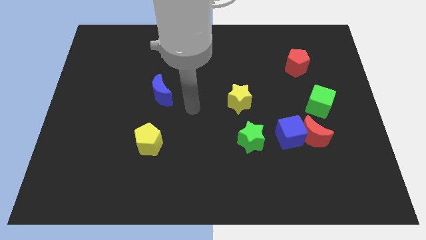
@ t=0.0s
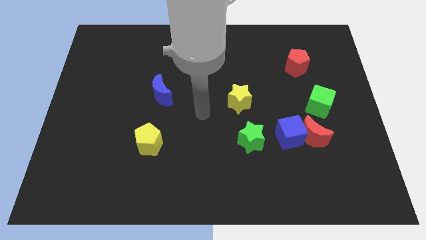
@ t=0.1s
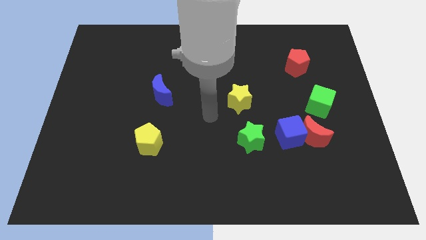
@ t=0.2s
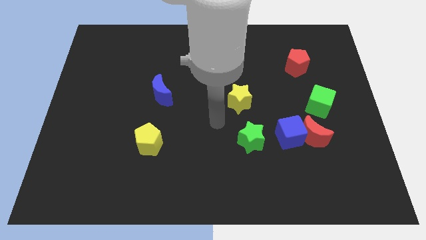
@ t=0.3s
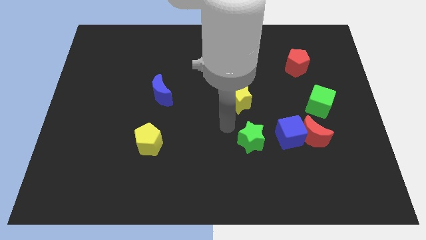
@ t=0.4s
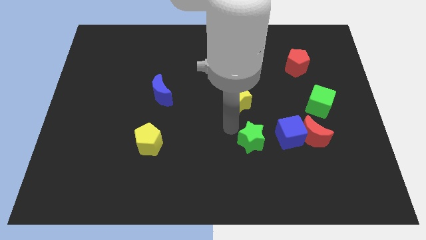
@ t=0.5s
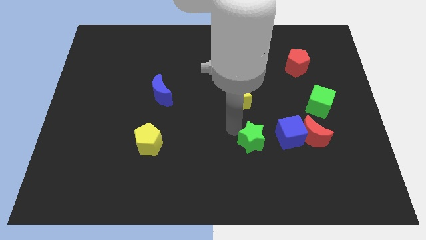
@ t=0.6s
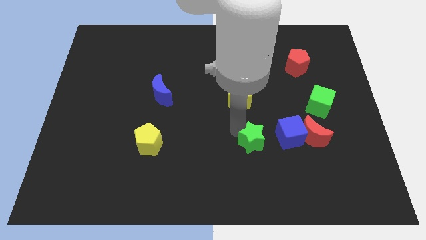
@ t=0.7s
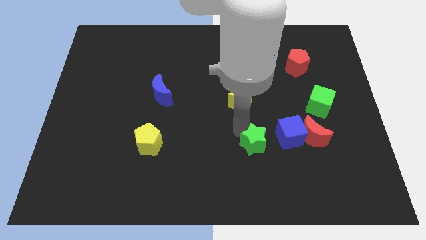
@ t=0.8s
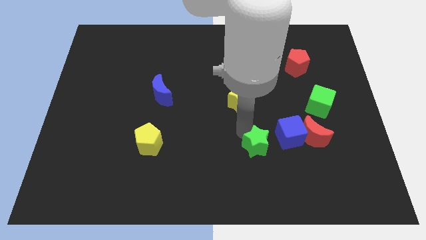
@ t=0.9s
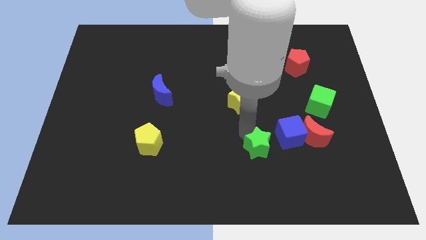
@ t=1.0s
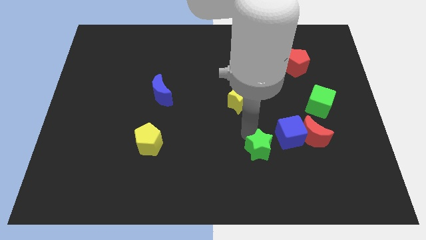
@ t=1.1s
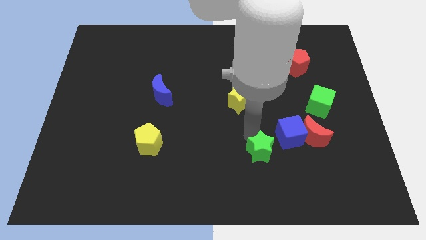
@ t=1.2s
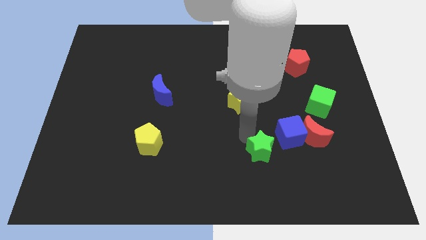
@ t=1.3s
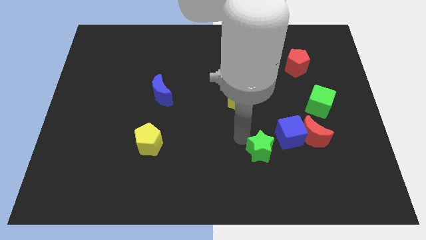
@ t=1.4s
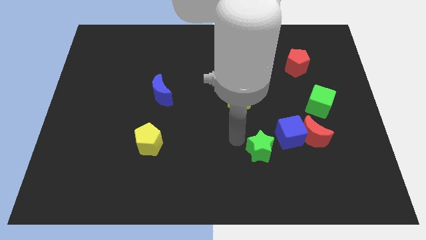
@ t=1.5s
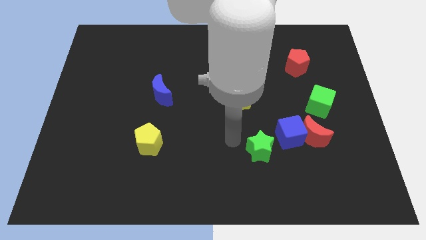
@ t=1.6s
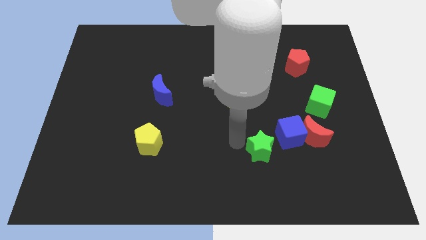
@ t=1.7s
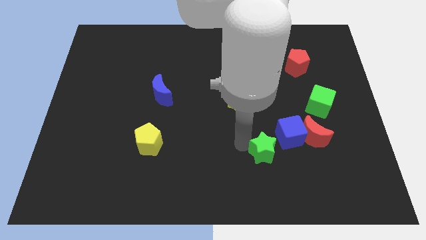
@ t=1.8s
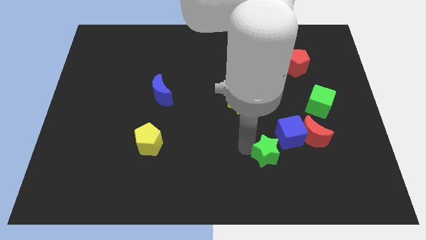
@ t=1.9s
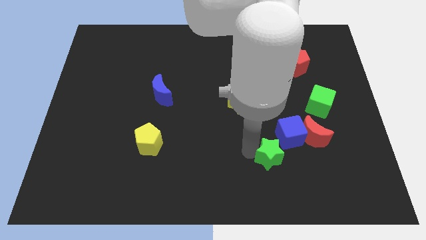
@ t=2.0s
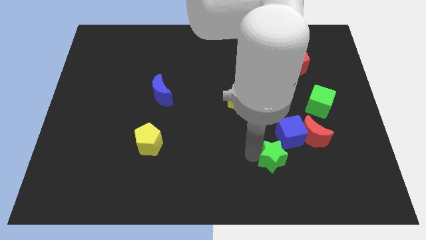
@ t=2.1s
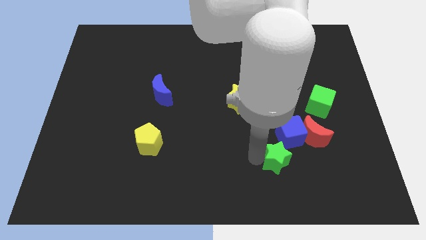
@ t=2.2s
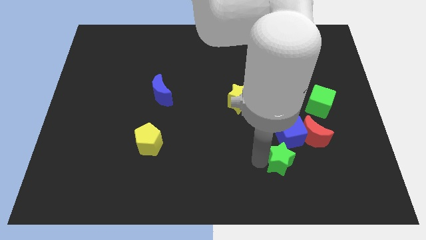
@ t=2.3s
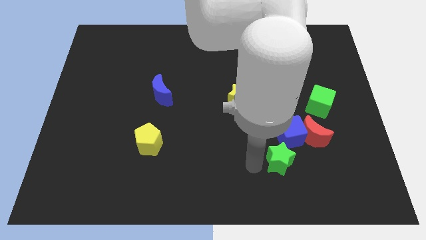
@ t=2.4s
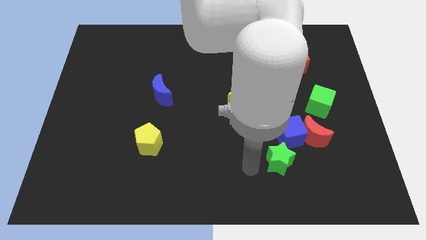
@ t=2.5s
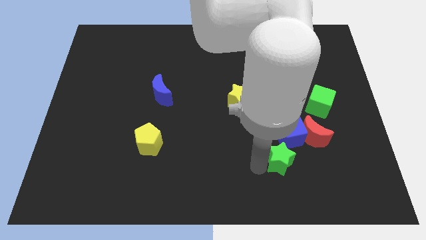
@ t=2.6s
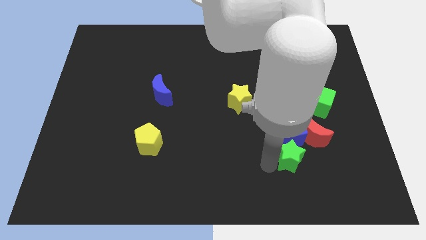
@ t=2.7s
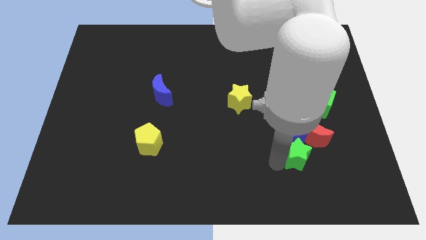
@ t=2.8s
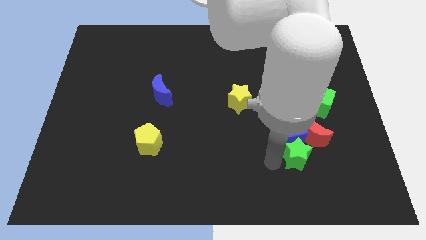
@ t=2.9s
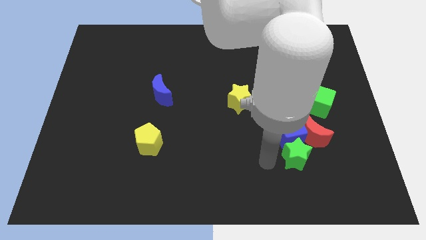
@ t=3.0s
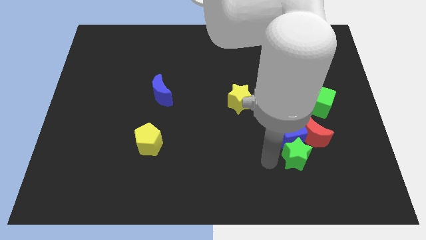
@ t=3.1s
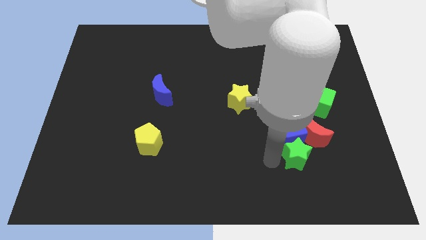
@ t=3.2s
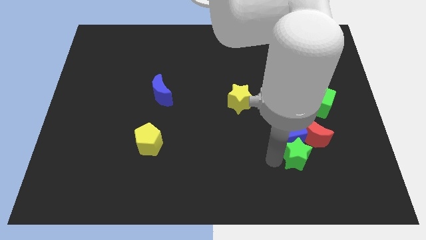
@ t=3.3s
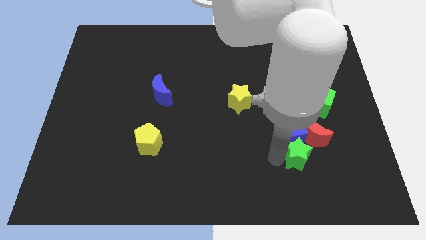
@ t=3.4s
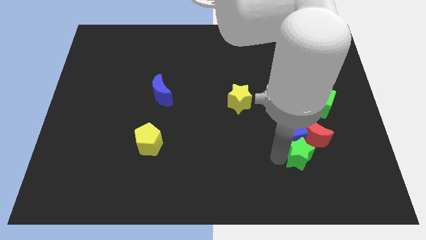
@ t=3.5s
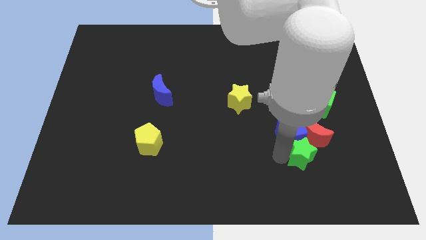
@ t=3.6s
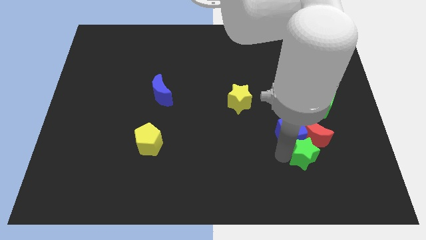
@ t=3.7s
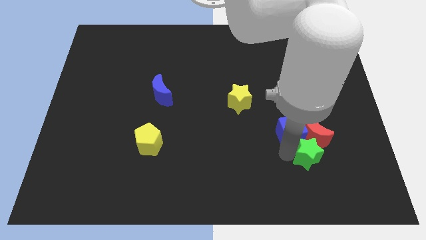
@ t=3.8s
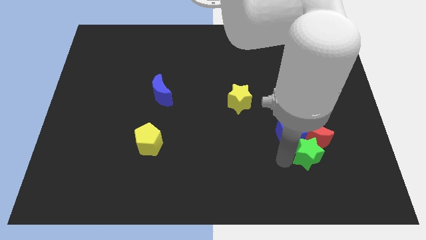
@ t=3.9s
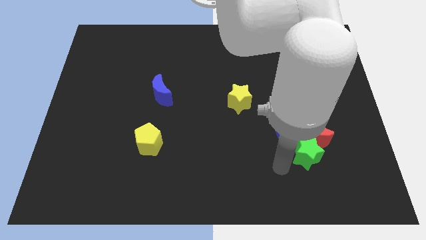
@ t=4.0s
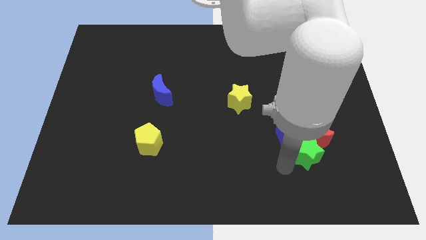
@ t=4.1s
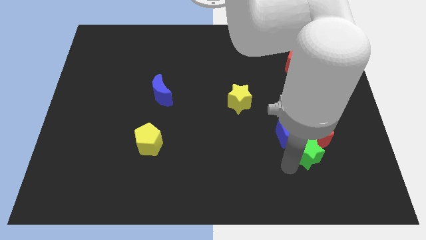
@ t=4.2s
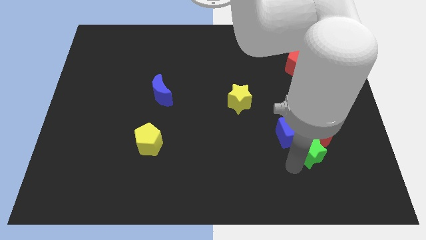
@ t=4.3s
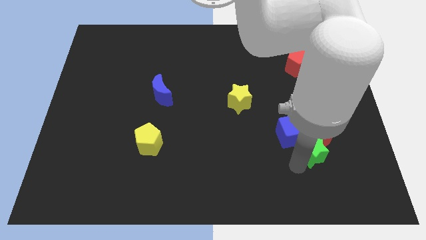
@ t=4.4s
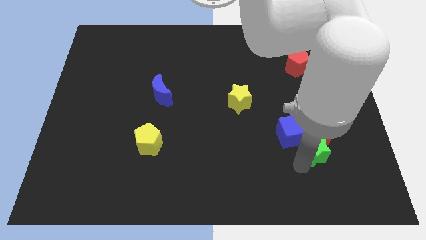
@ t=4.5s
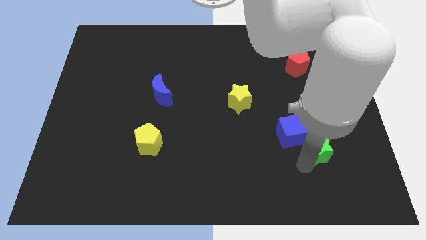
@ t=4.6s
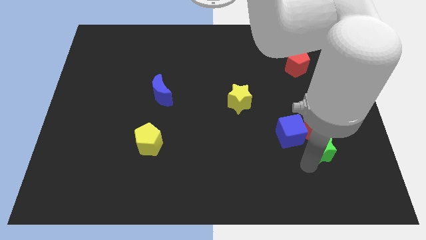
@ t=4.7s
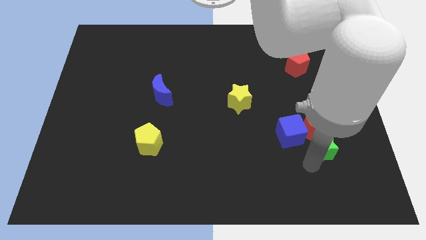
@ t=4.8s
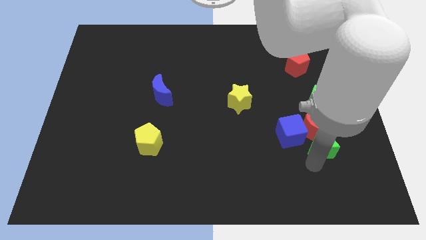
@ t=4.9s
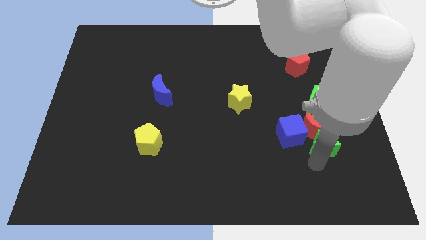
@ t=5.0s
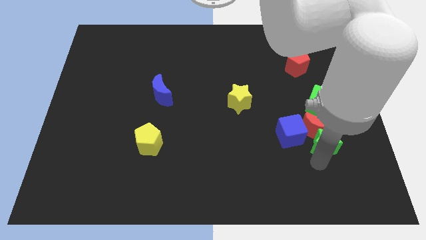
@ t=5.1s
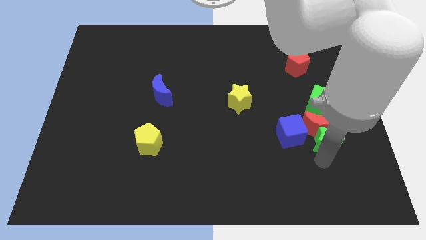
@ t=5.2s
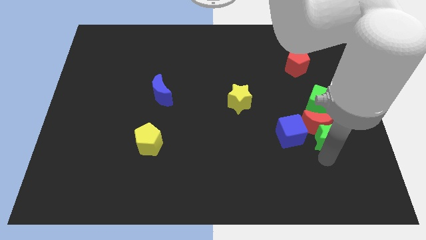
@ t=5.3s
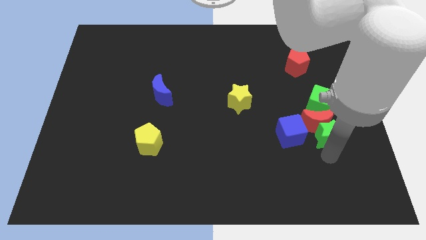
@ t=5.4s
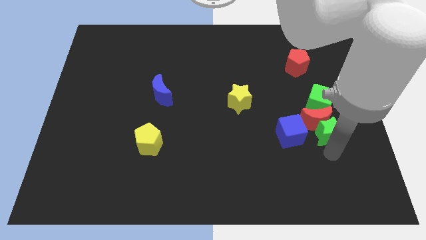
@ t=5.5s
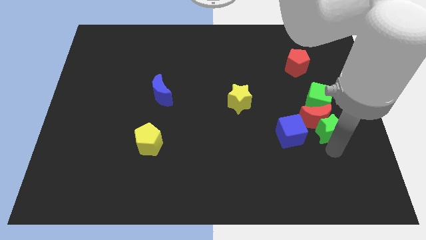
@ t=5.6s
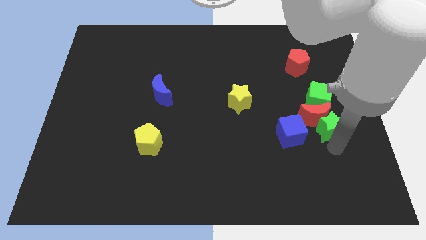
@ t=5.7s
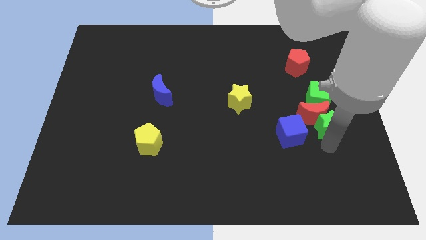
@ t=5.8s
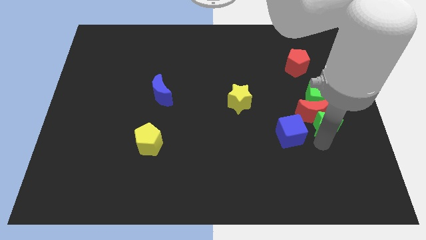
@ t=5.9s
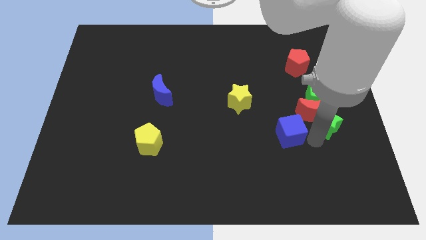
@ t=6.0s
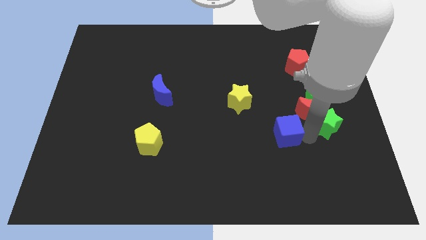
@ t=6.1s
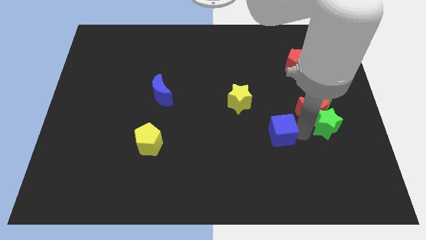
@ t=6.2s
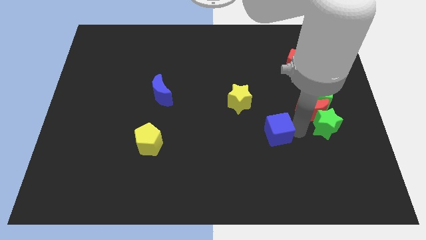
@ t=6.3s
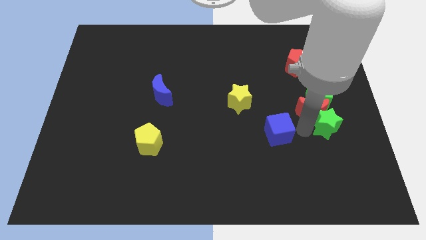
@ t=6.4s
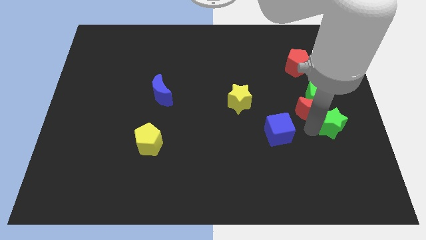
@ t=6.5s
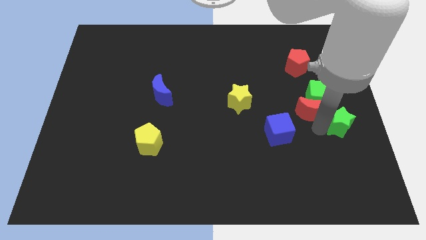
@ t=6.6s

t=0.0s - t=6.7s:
move the green star to the center right

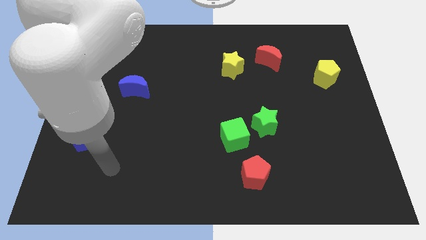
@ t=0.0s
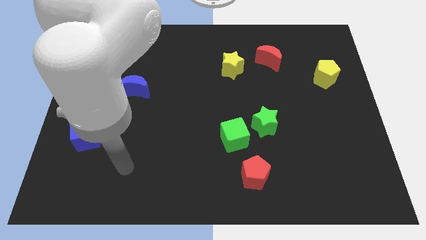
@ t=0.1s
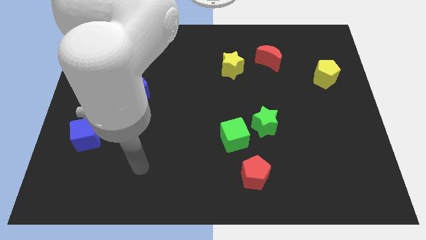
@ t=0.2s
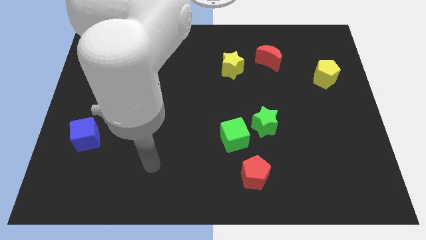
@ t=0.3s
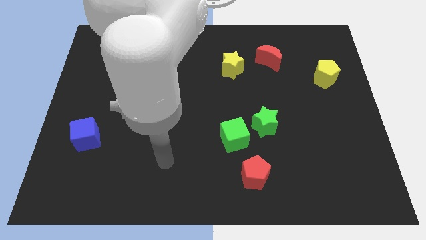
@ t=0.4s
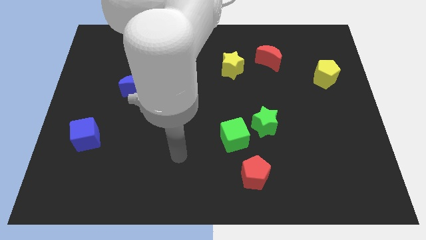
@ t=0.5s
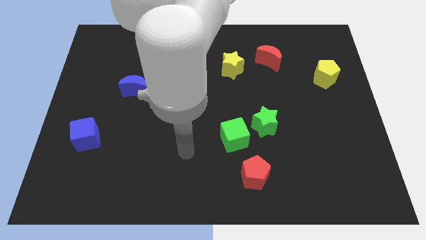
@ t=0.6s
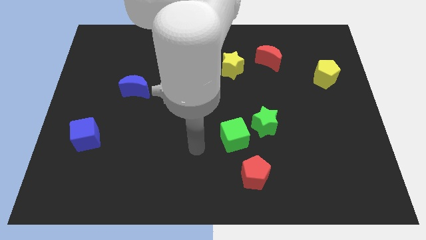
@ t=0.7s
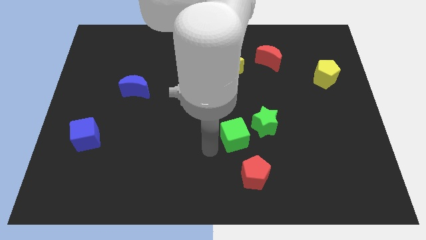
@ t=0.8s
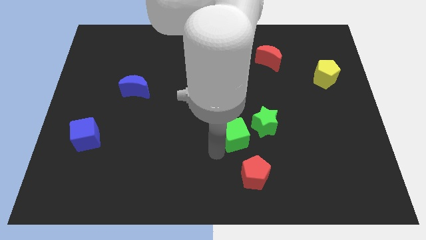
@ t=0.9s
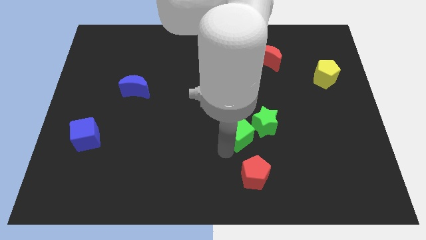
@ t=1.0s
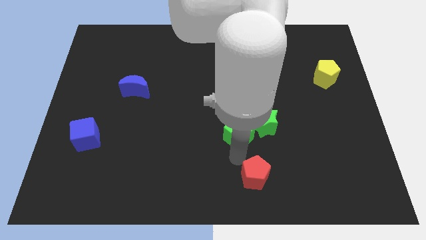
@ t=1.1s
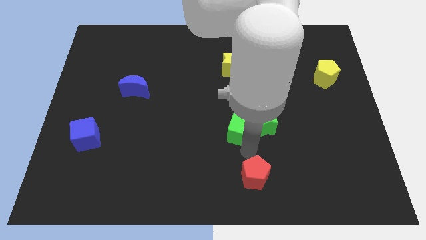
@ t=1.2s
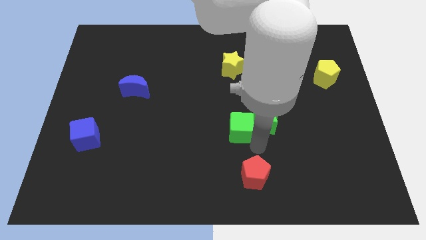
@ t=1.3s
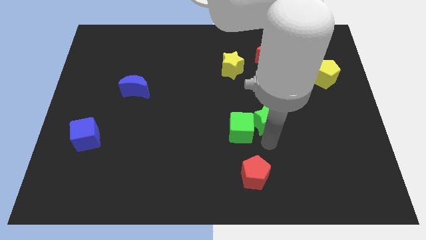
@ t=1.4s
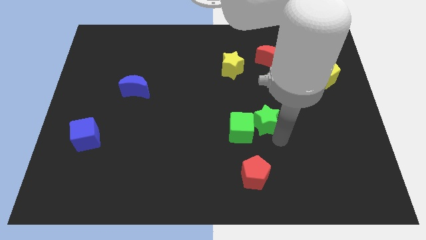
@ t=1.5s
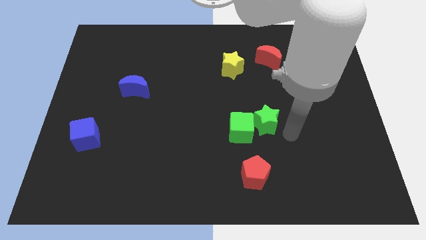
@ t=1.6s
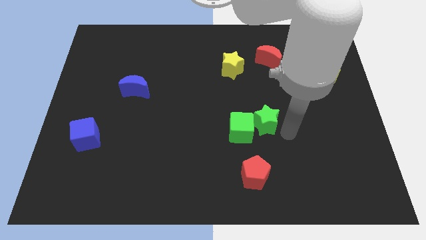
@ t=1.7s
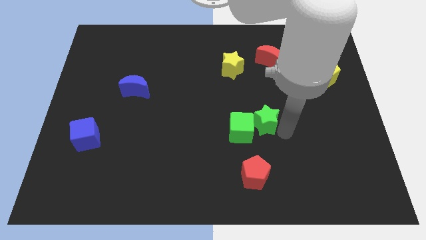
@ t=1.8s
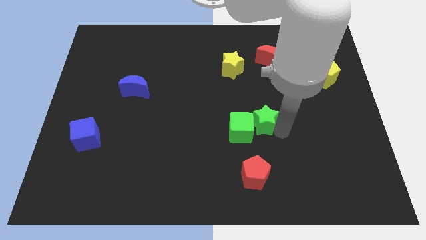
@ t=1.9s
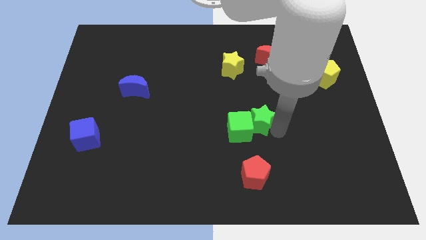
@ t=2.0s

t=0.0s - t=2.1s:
push the green star to the middle
